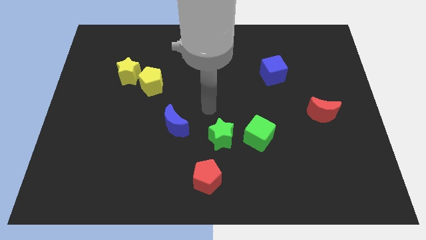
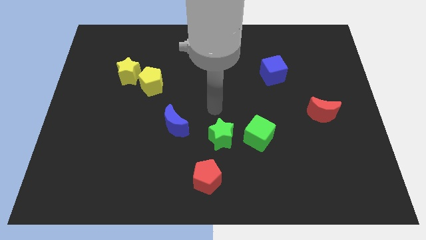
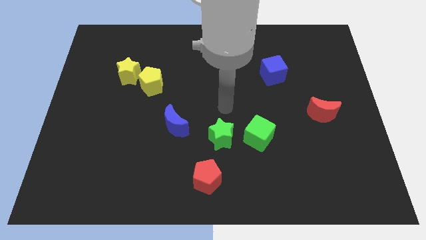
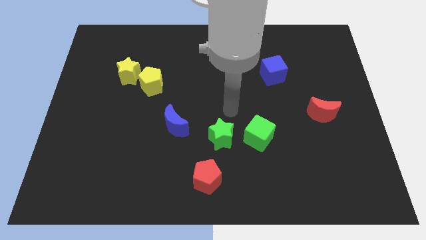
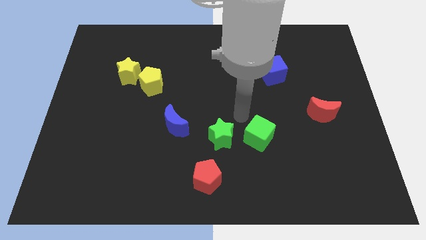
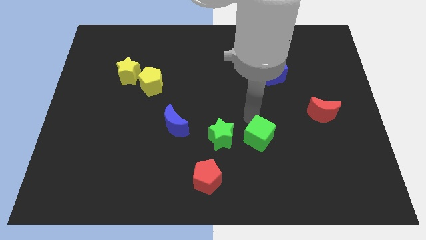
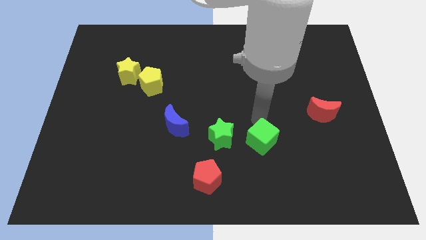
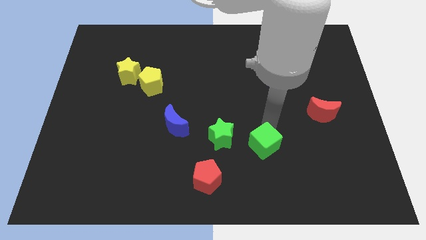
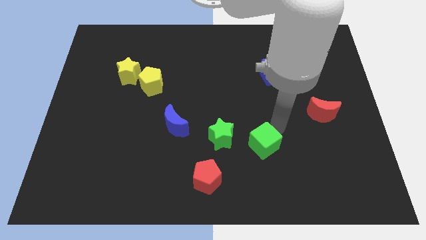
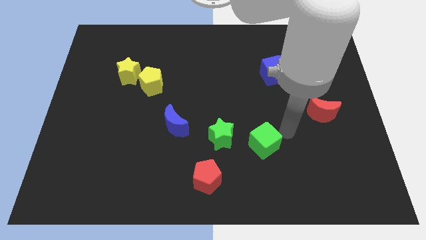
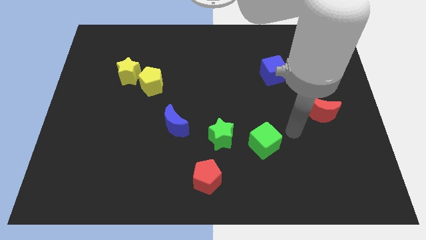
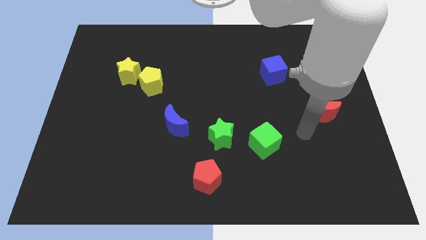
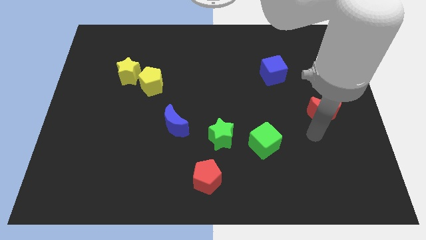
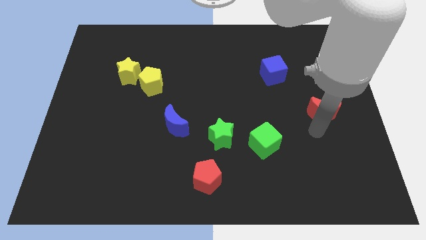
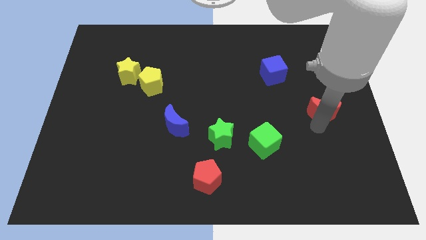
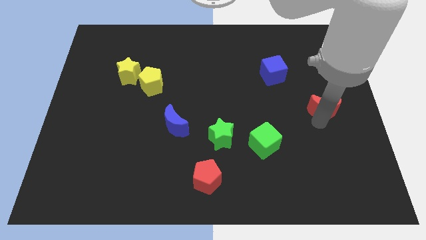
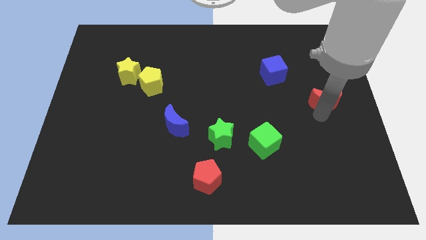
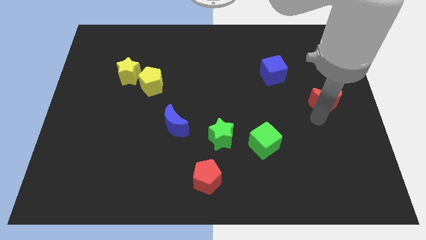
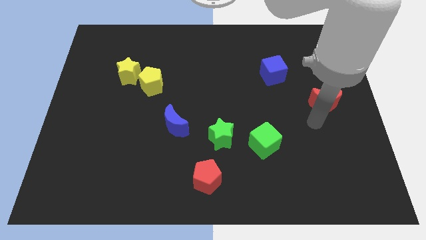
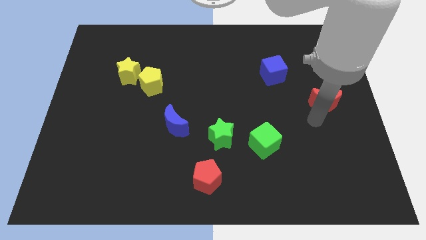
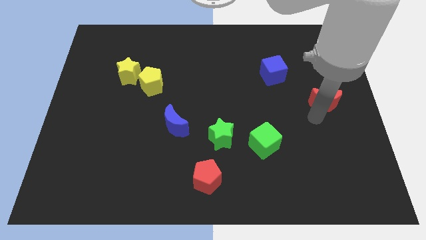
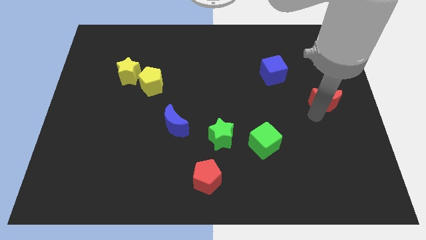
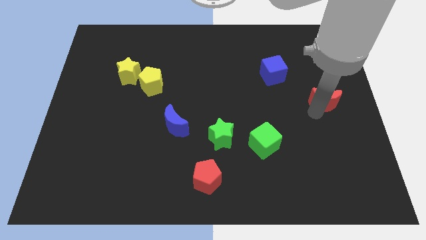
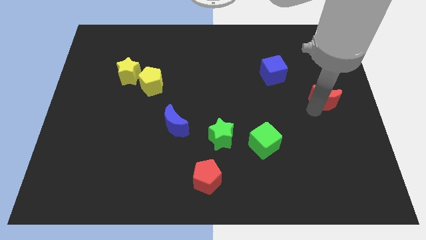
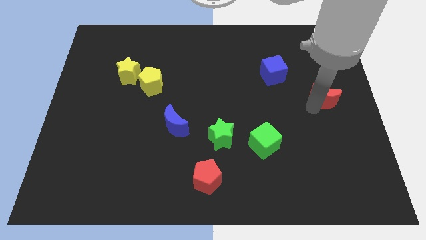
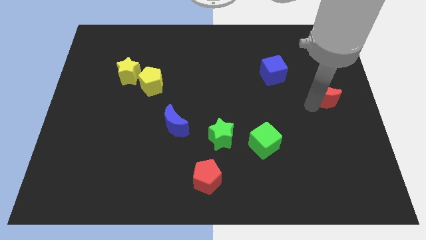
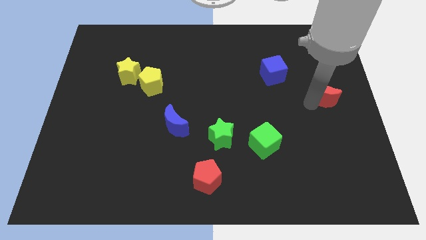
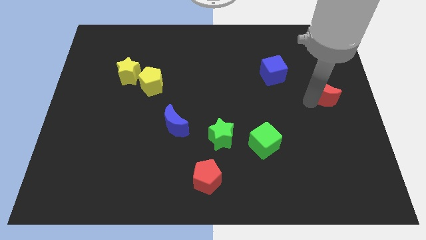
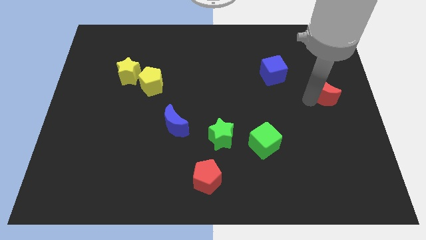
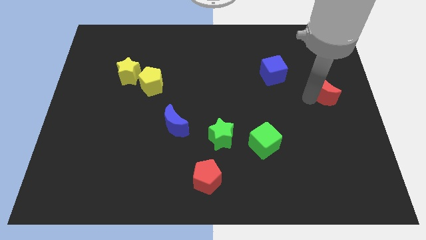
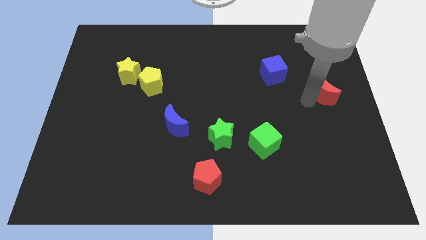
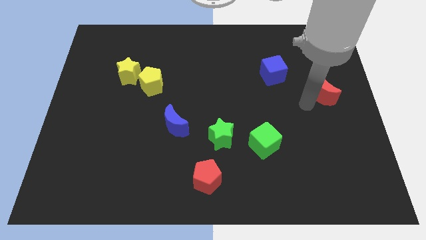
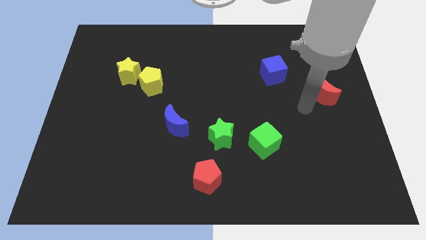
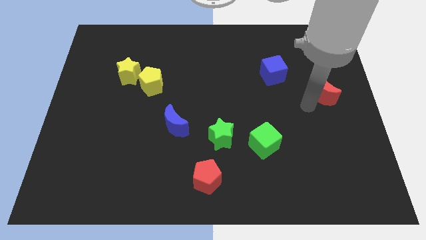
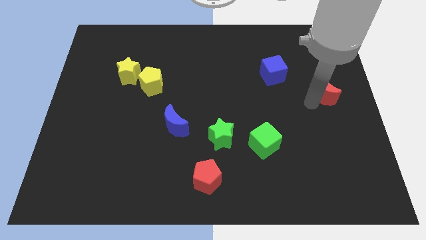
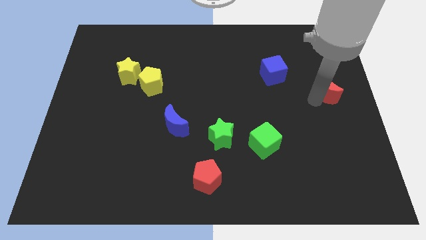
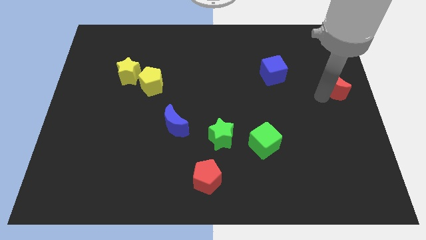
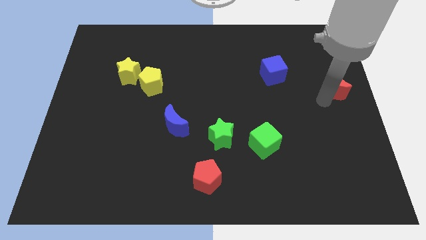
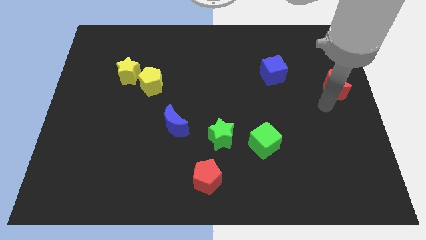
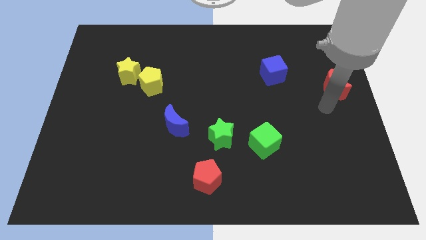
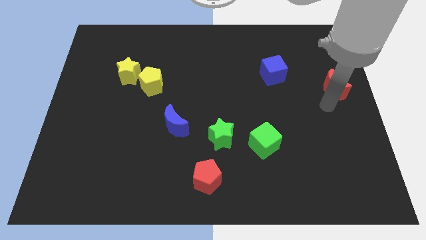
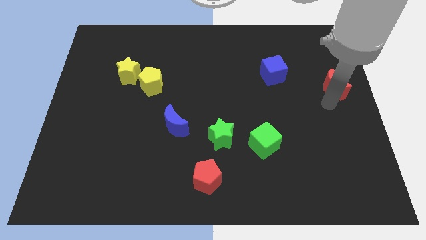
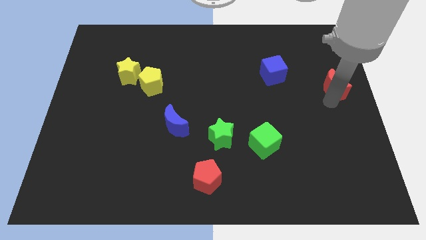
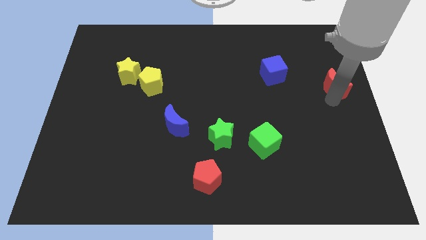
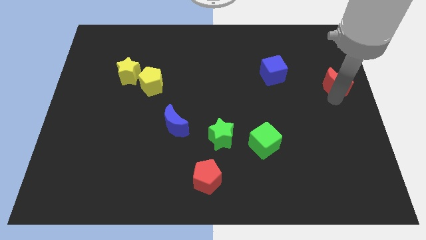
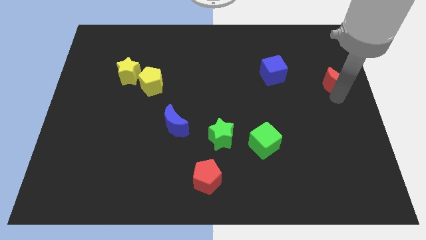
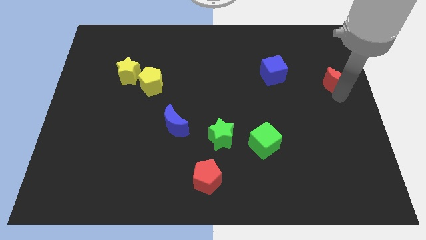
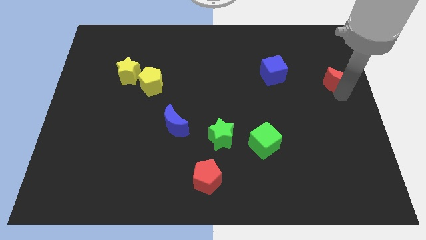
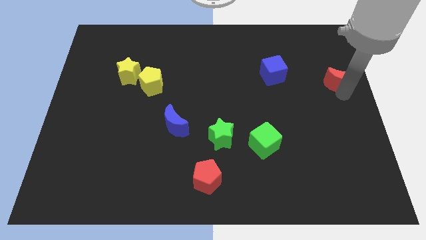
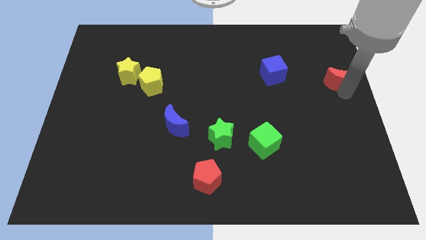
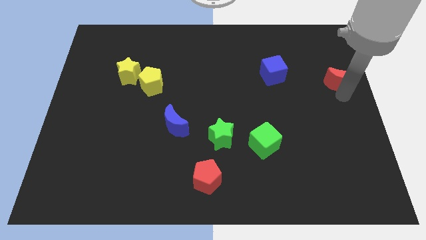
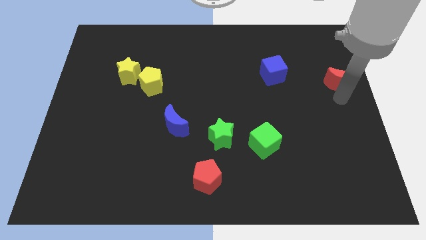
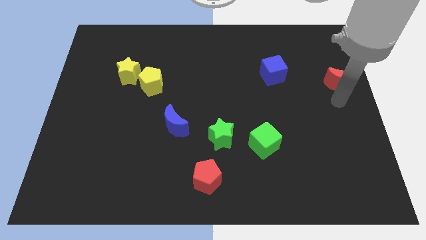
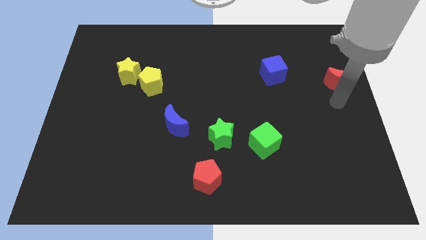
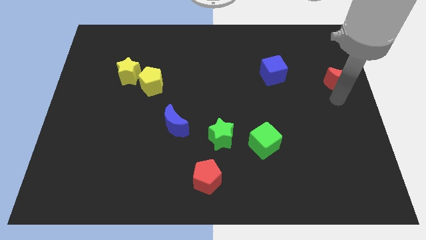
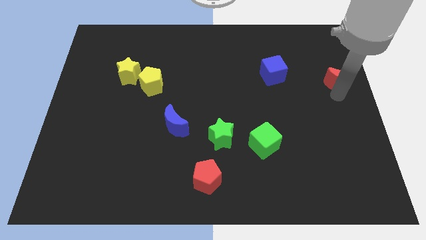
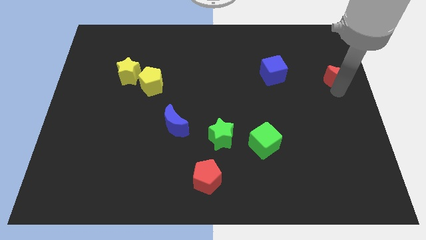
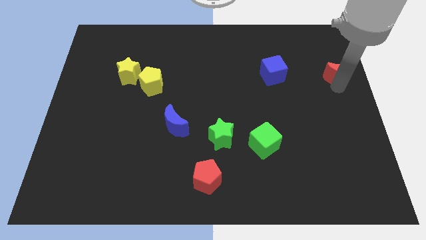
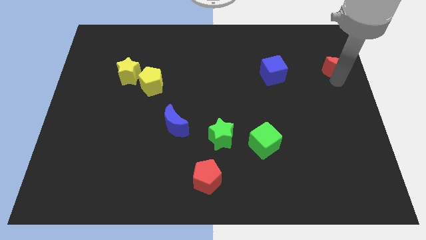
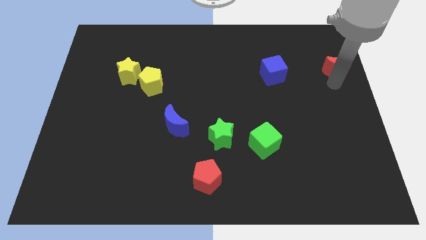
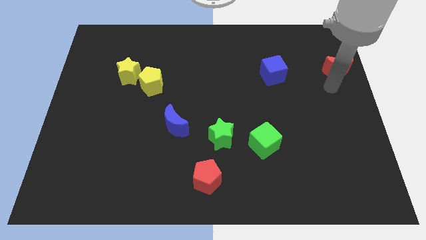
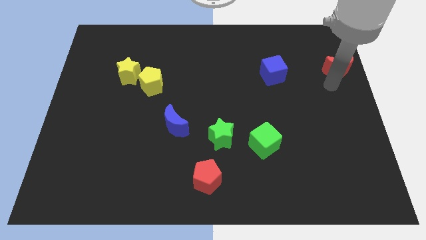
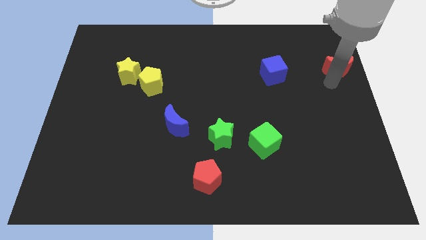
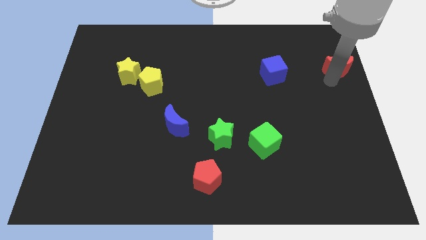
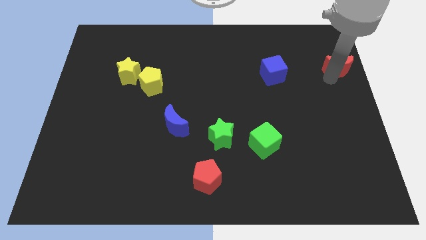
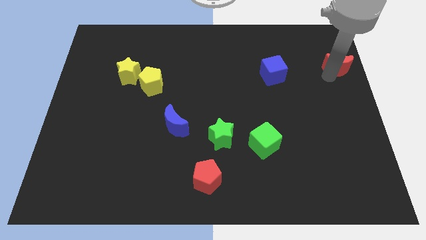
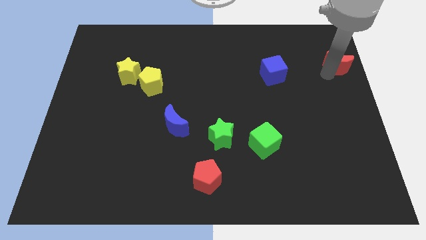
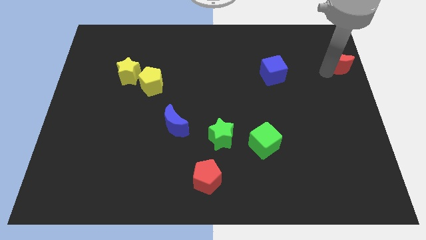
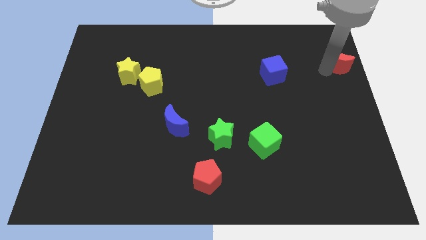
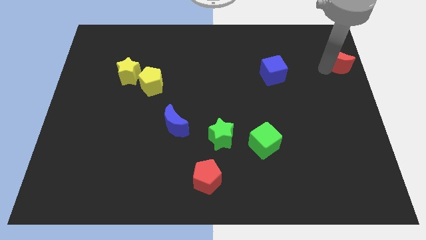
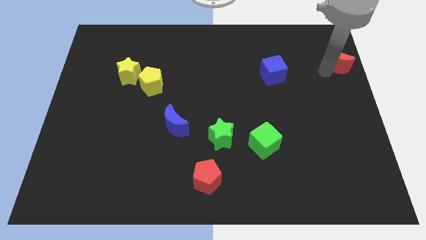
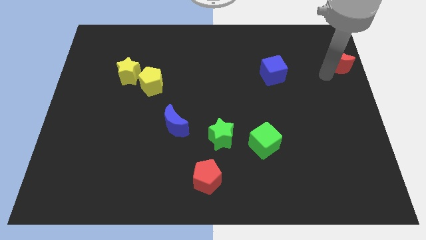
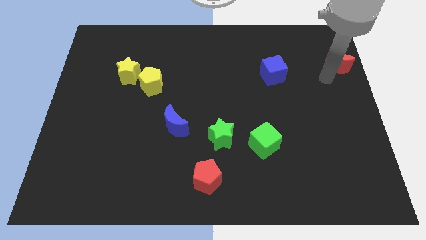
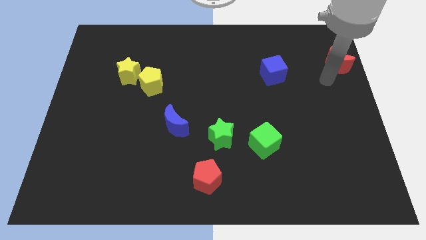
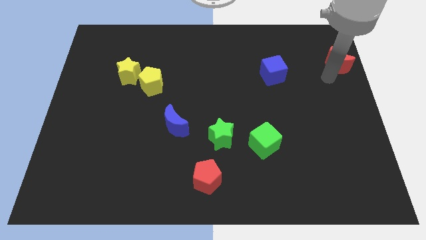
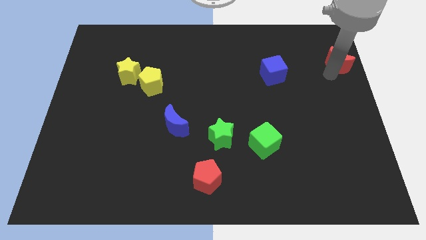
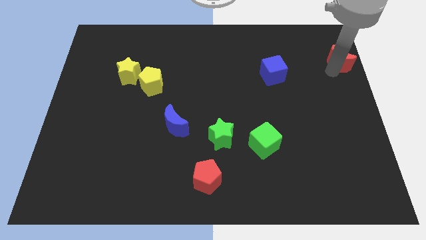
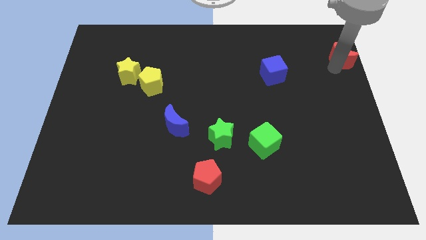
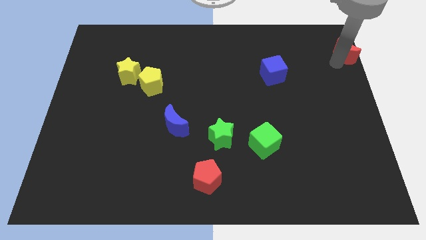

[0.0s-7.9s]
move the red moon to the top right corner
